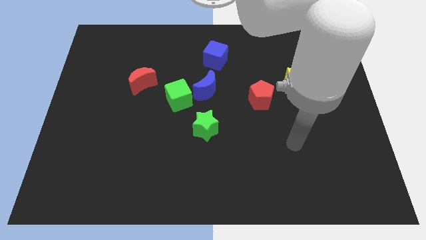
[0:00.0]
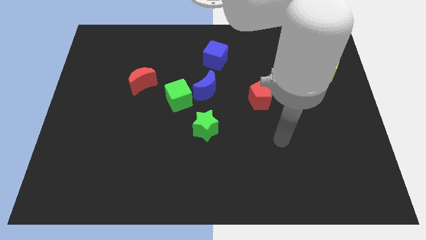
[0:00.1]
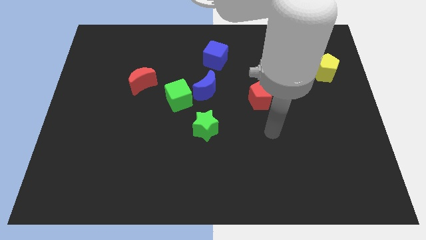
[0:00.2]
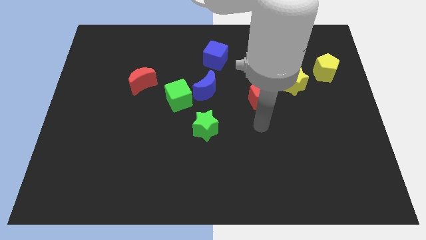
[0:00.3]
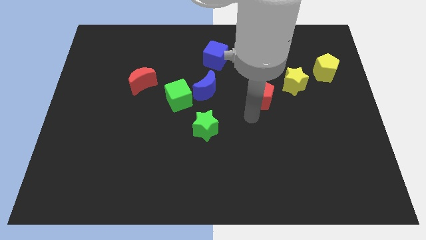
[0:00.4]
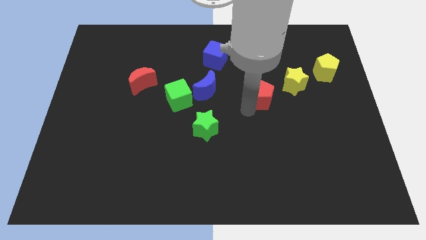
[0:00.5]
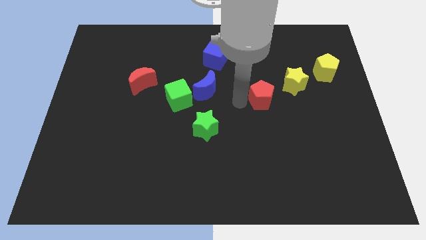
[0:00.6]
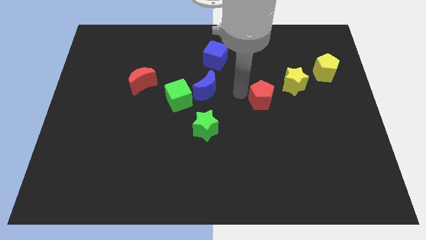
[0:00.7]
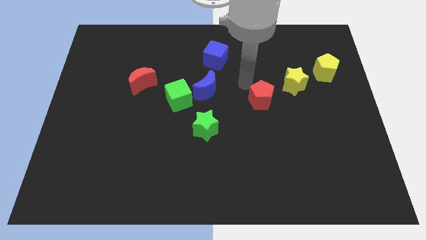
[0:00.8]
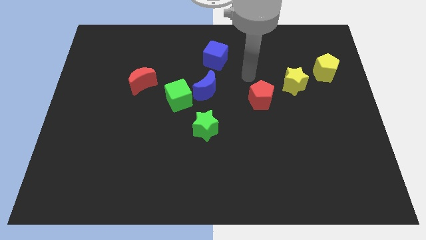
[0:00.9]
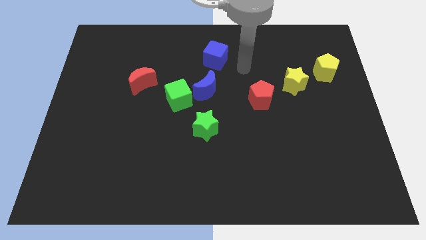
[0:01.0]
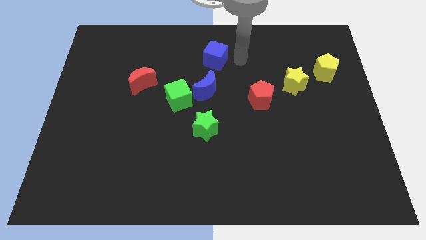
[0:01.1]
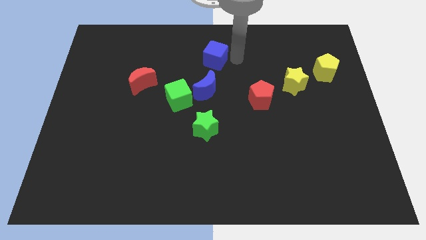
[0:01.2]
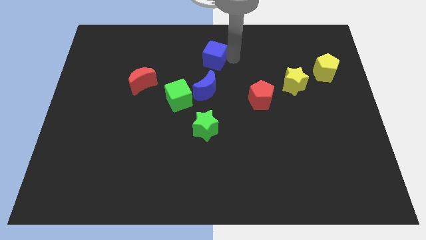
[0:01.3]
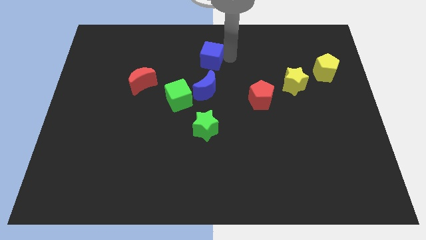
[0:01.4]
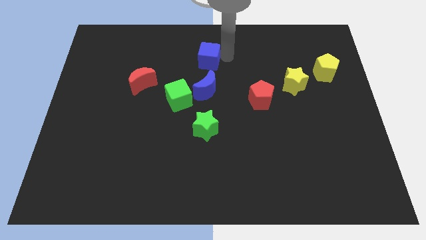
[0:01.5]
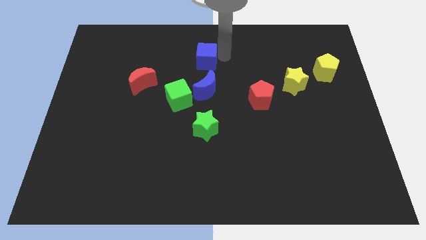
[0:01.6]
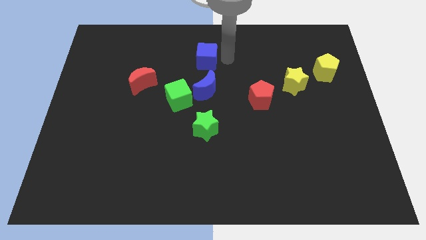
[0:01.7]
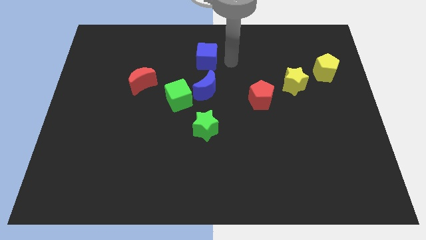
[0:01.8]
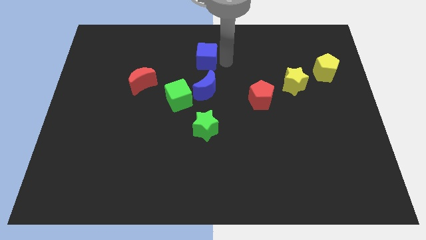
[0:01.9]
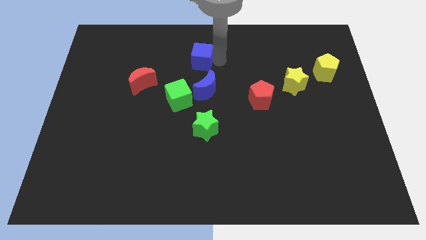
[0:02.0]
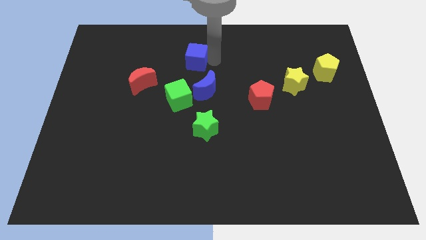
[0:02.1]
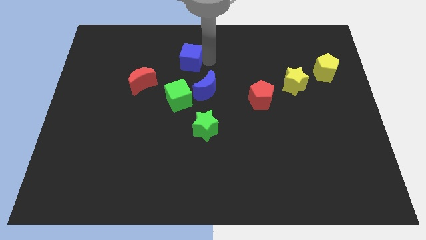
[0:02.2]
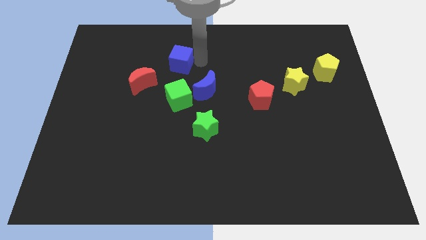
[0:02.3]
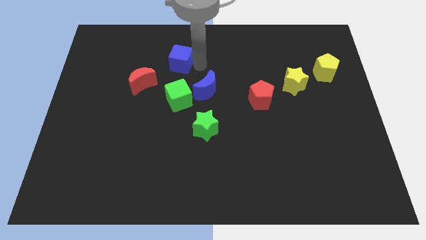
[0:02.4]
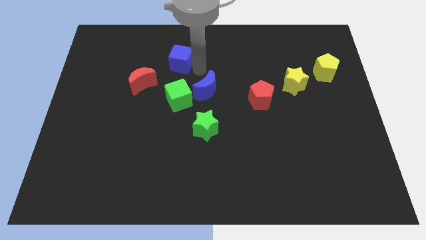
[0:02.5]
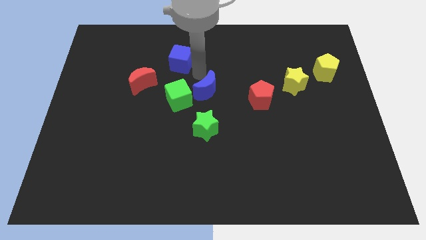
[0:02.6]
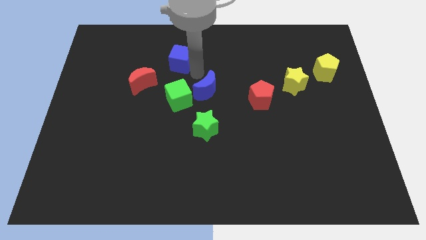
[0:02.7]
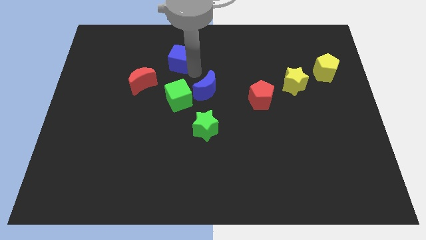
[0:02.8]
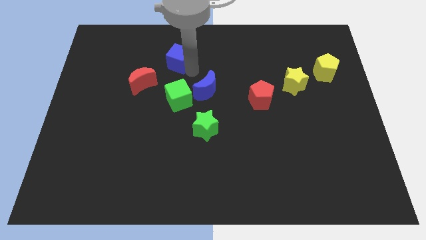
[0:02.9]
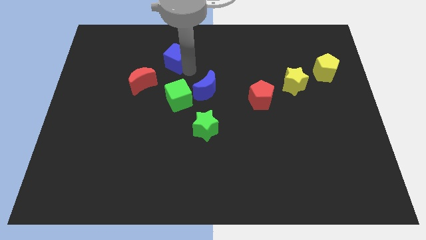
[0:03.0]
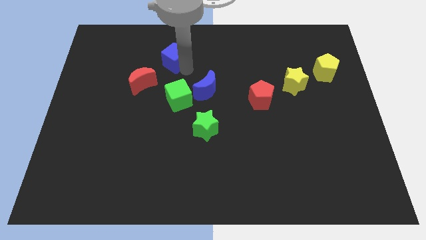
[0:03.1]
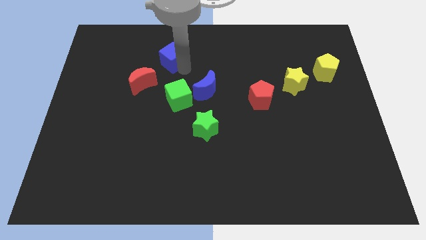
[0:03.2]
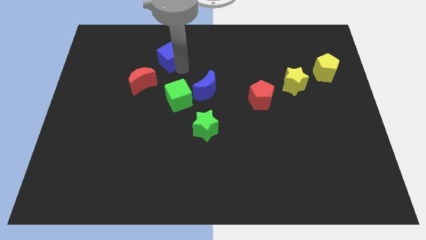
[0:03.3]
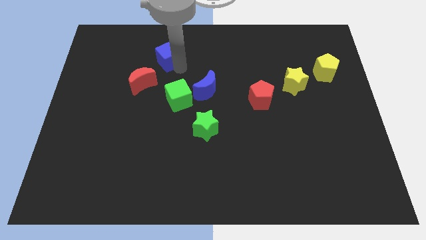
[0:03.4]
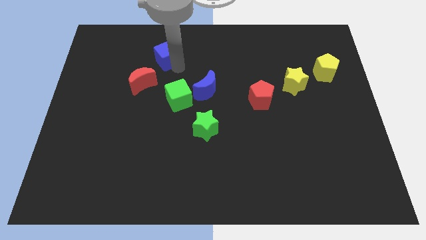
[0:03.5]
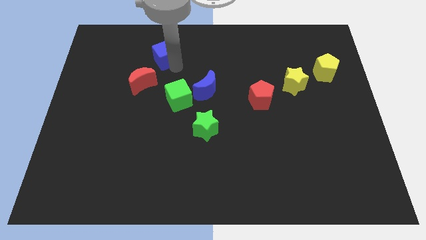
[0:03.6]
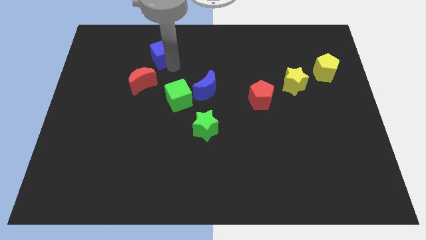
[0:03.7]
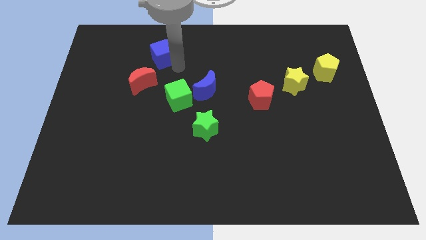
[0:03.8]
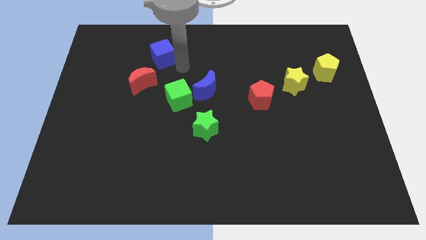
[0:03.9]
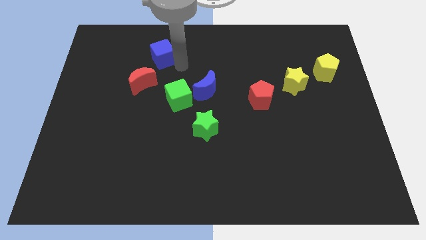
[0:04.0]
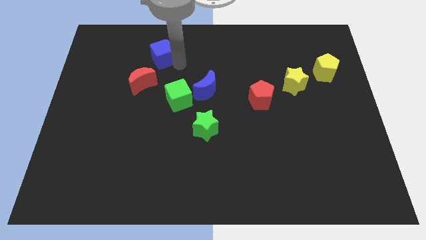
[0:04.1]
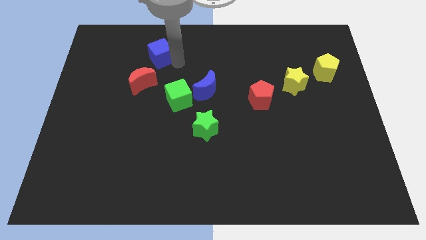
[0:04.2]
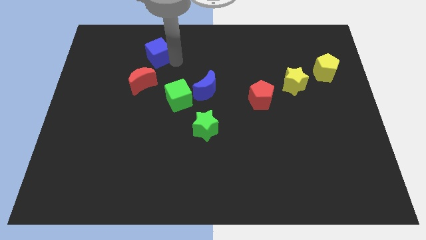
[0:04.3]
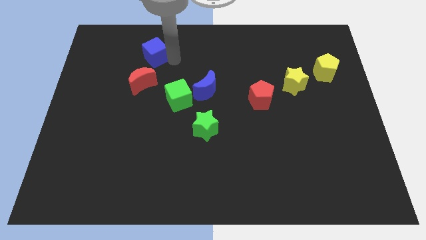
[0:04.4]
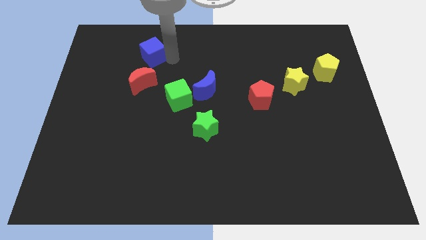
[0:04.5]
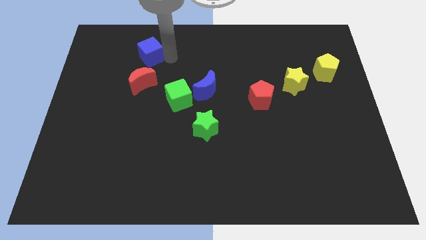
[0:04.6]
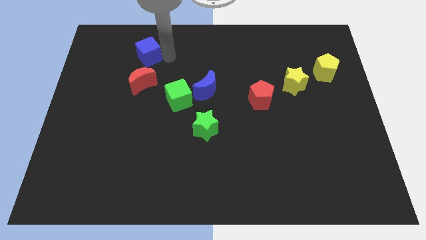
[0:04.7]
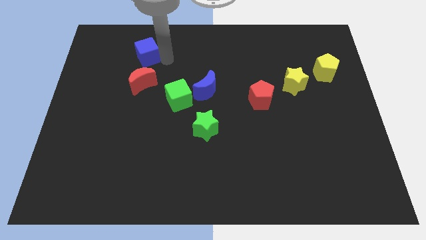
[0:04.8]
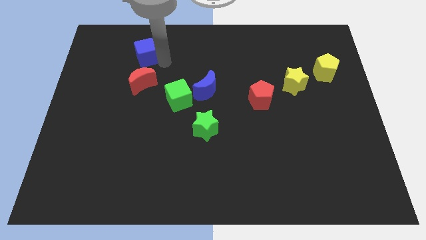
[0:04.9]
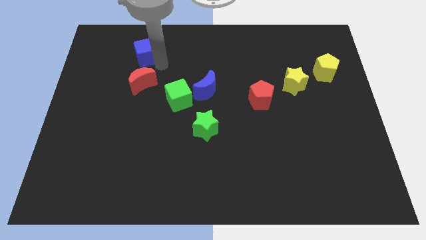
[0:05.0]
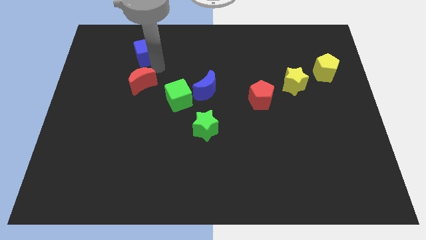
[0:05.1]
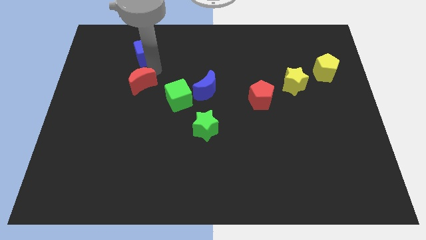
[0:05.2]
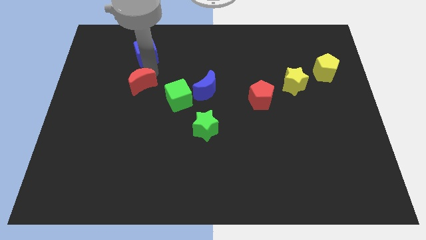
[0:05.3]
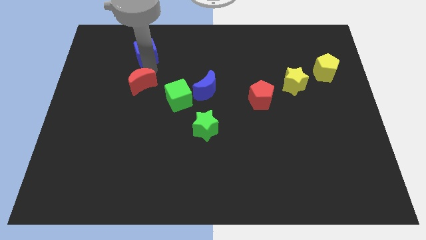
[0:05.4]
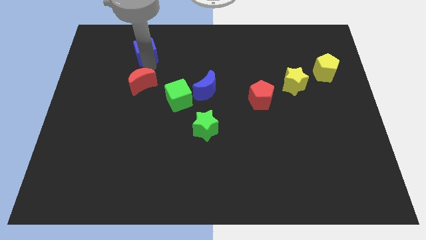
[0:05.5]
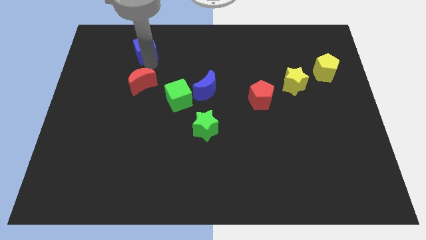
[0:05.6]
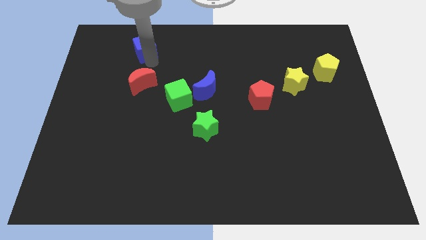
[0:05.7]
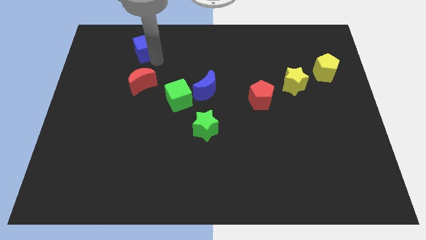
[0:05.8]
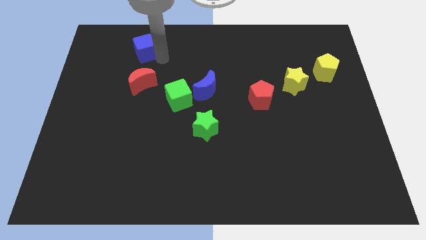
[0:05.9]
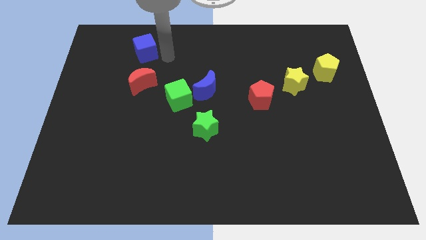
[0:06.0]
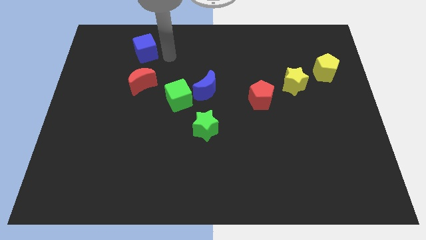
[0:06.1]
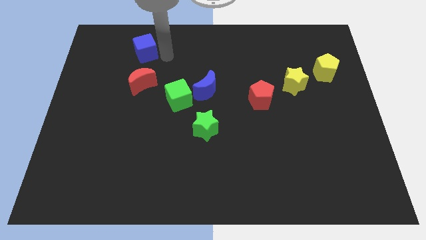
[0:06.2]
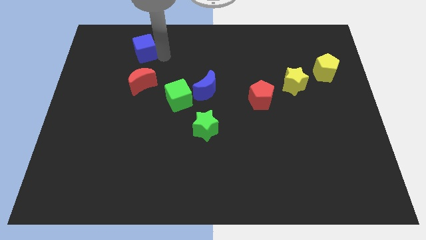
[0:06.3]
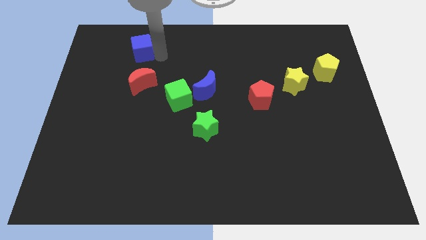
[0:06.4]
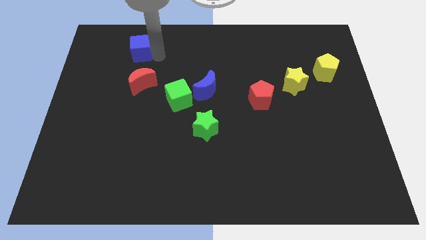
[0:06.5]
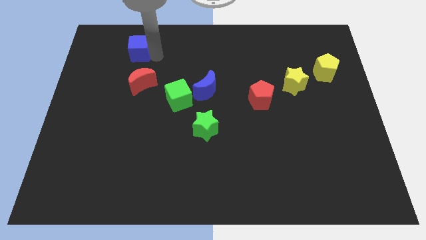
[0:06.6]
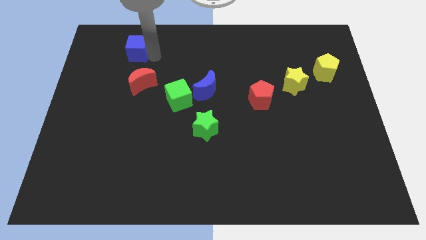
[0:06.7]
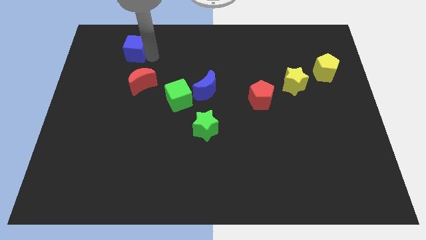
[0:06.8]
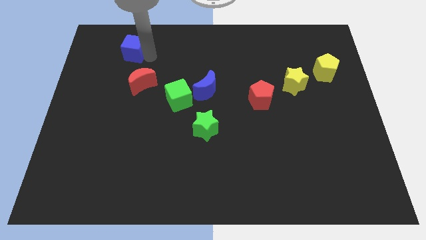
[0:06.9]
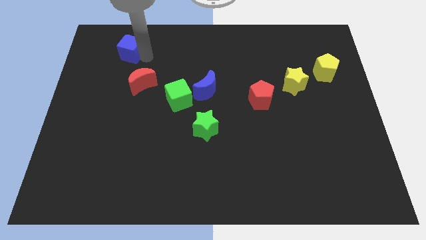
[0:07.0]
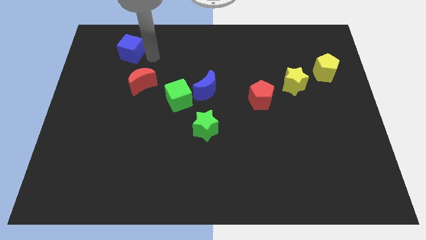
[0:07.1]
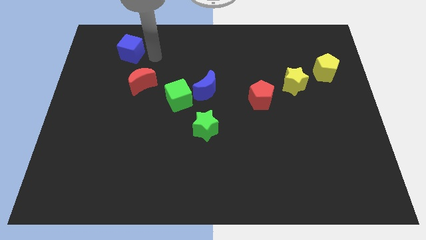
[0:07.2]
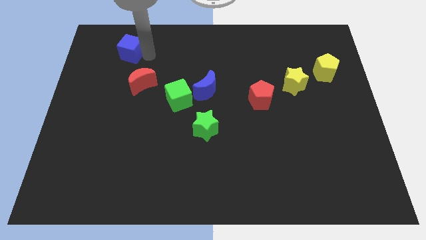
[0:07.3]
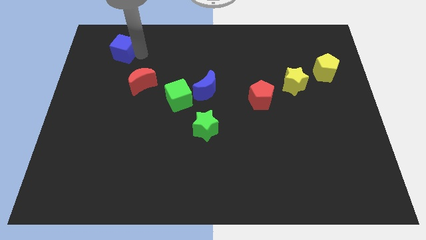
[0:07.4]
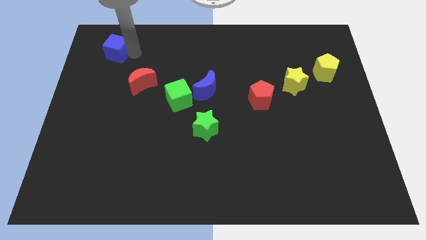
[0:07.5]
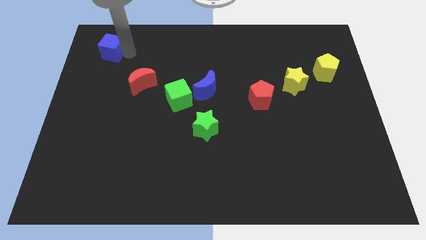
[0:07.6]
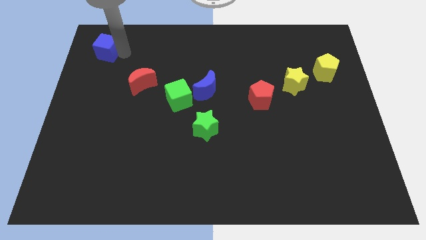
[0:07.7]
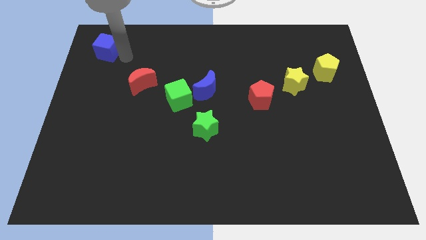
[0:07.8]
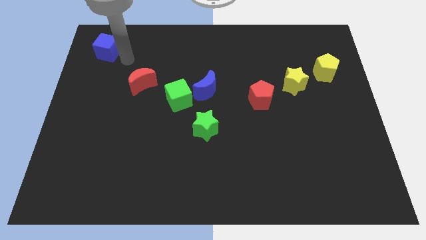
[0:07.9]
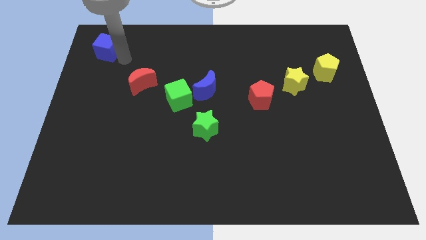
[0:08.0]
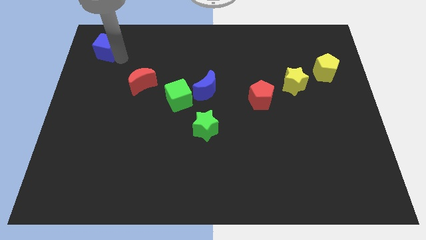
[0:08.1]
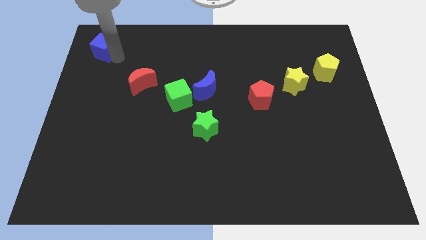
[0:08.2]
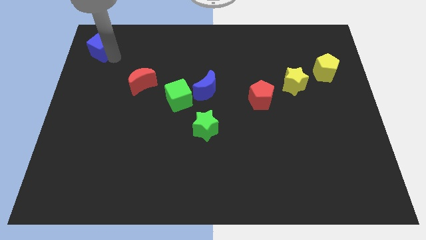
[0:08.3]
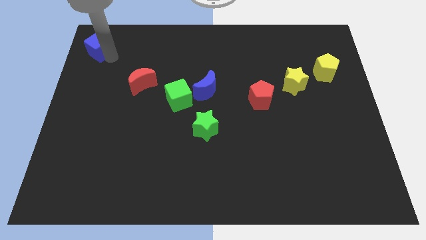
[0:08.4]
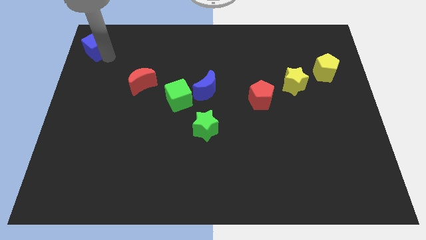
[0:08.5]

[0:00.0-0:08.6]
push the blue cube to the upper left corner
